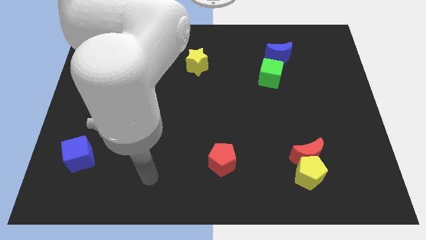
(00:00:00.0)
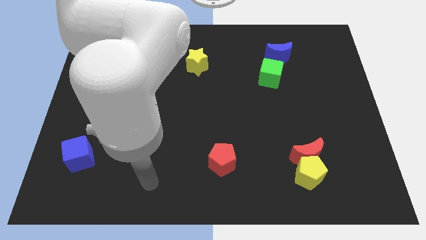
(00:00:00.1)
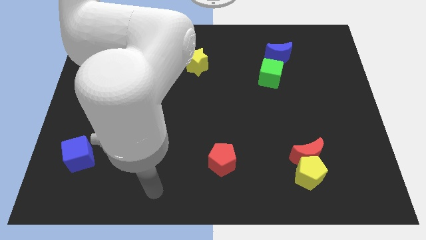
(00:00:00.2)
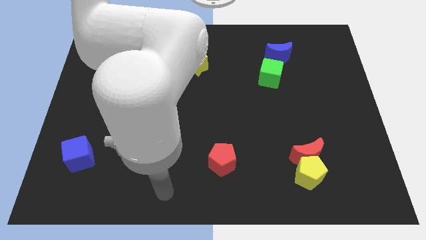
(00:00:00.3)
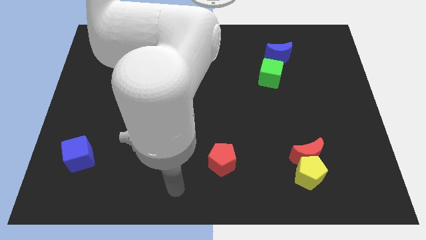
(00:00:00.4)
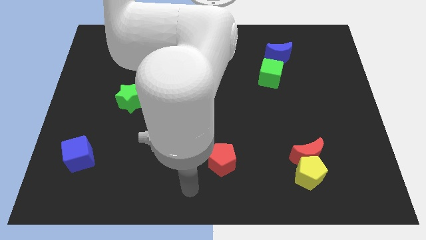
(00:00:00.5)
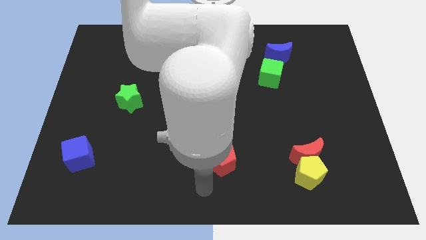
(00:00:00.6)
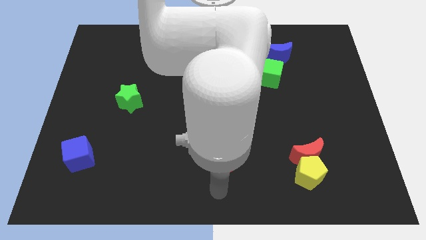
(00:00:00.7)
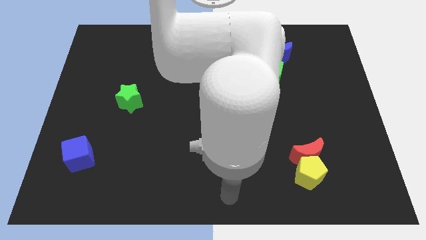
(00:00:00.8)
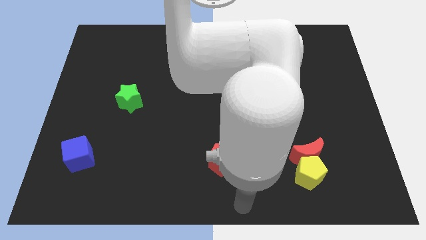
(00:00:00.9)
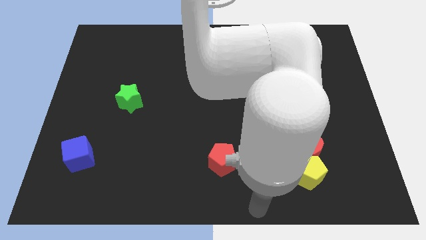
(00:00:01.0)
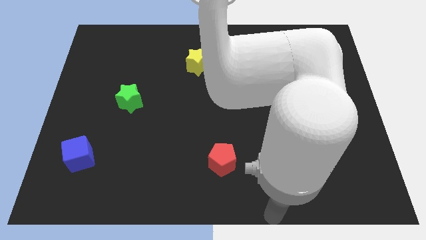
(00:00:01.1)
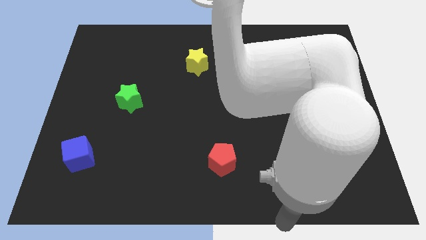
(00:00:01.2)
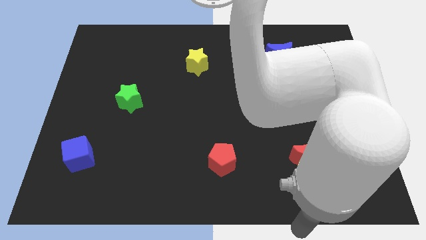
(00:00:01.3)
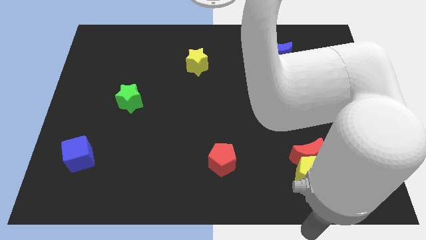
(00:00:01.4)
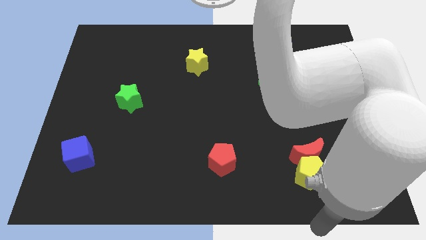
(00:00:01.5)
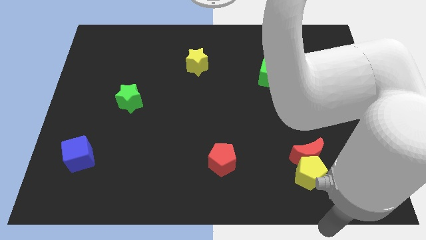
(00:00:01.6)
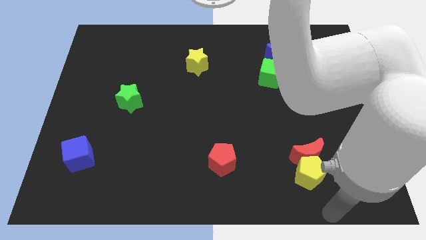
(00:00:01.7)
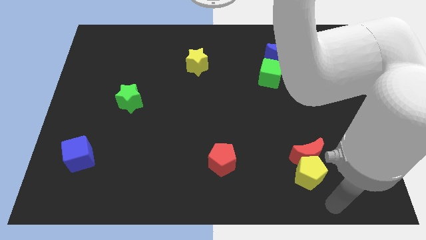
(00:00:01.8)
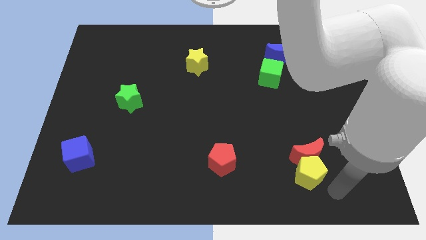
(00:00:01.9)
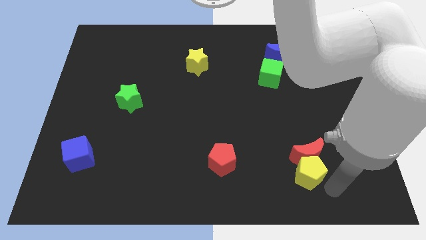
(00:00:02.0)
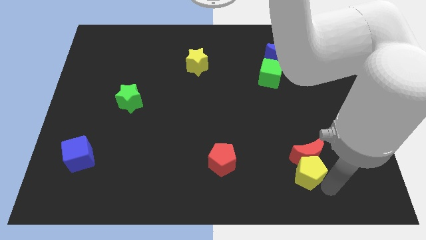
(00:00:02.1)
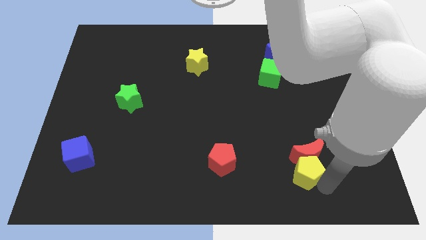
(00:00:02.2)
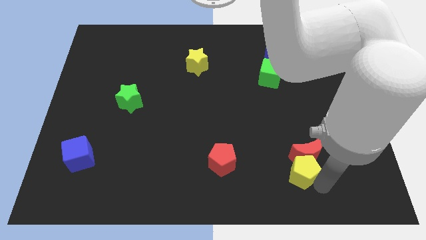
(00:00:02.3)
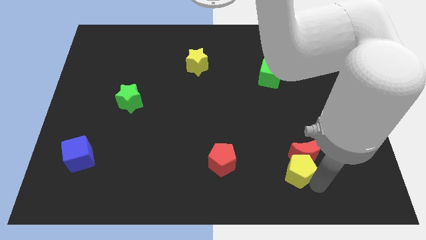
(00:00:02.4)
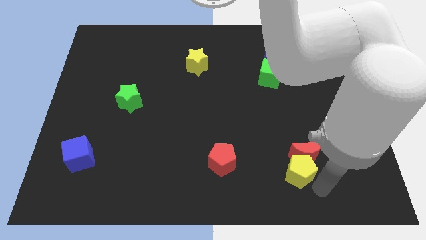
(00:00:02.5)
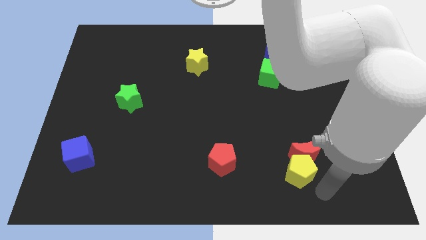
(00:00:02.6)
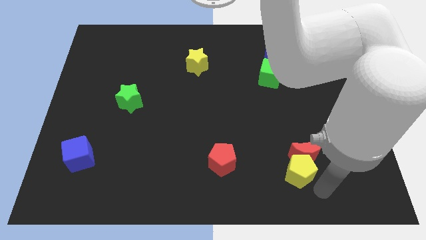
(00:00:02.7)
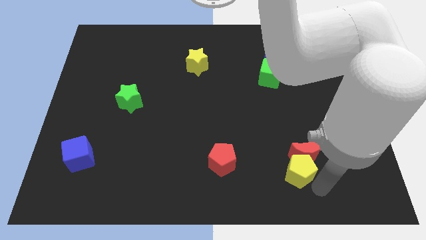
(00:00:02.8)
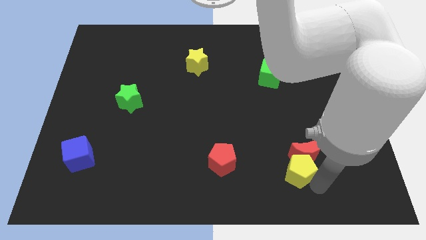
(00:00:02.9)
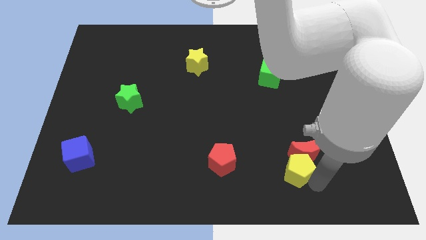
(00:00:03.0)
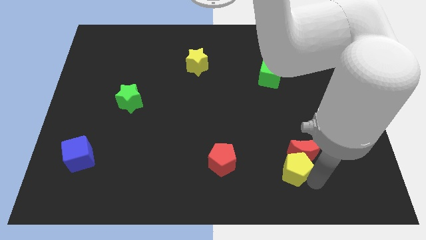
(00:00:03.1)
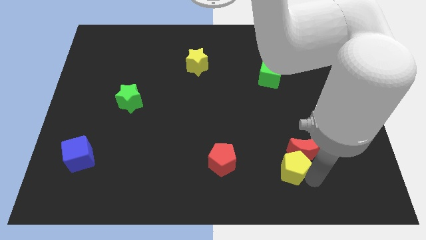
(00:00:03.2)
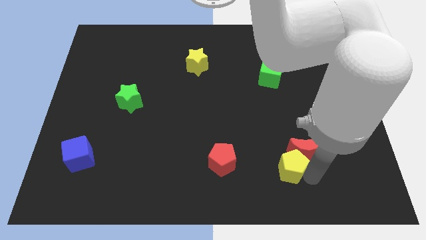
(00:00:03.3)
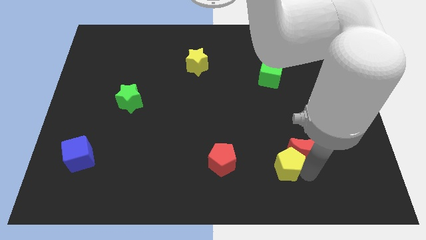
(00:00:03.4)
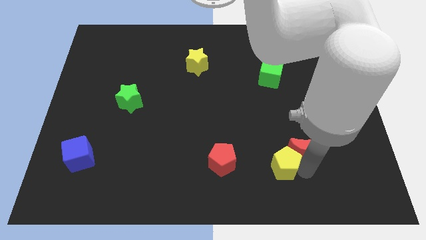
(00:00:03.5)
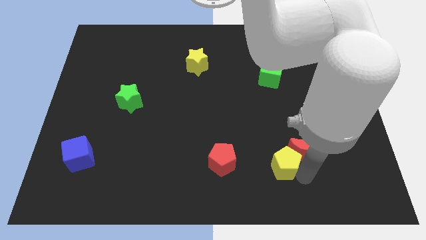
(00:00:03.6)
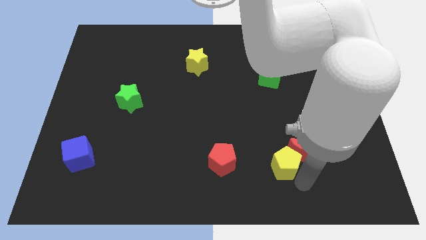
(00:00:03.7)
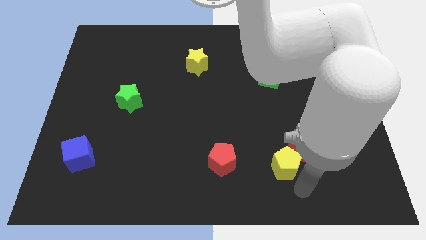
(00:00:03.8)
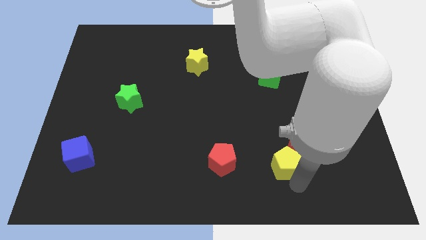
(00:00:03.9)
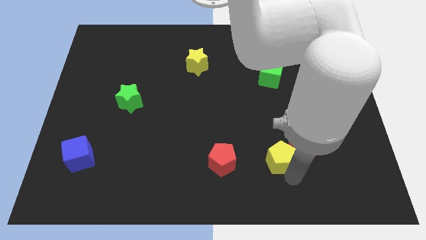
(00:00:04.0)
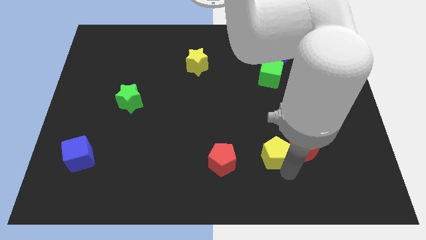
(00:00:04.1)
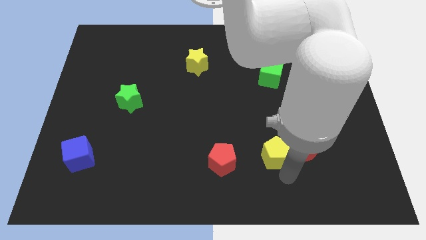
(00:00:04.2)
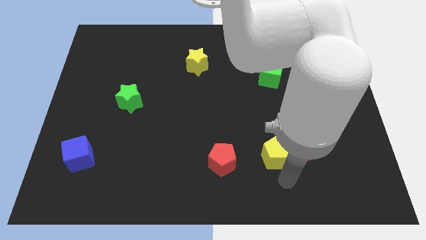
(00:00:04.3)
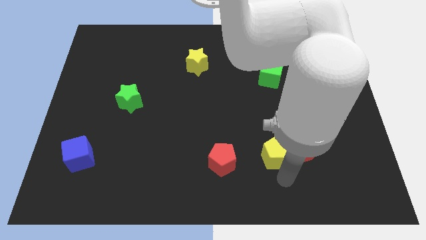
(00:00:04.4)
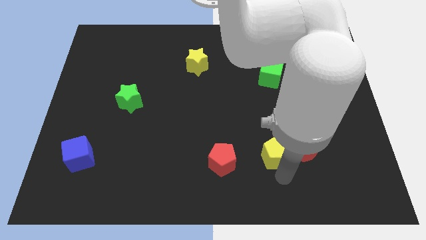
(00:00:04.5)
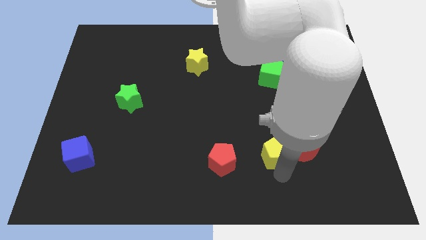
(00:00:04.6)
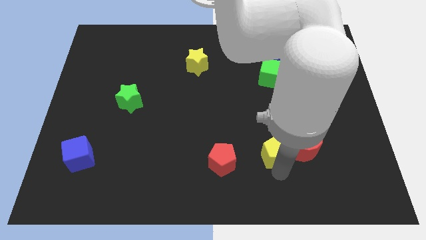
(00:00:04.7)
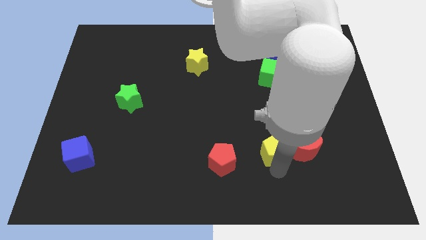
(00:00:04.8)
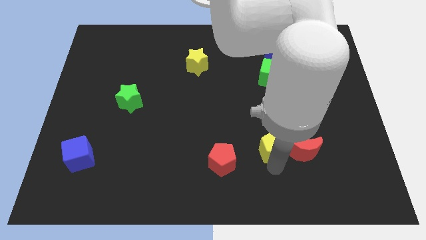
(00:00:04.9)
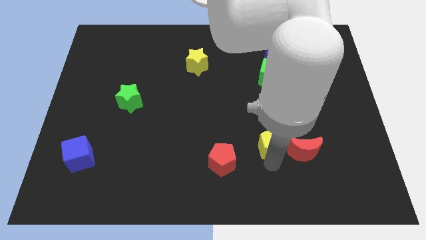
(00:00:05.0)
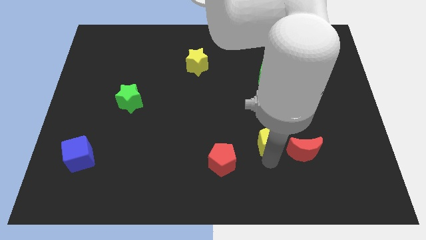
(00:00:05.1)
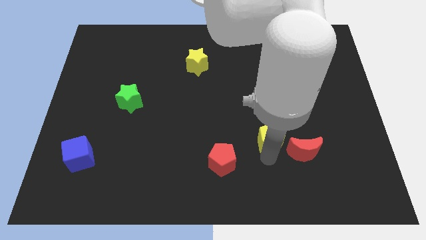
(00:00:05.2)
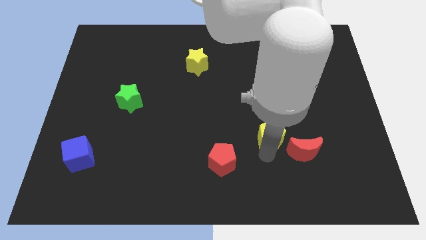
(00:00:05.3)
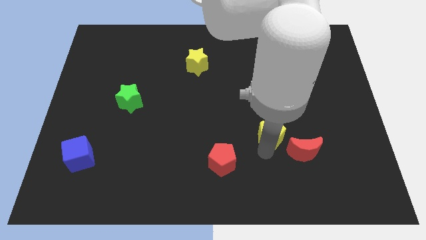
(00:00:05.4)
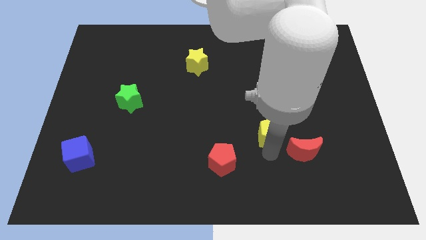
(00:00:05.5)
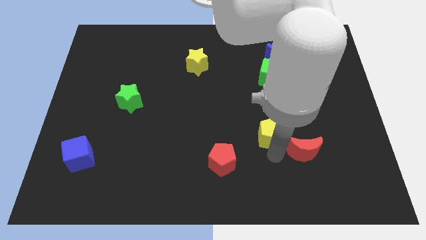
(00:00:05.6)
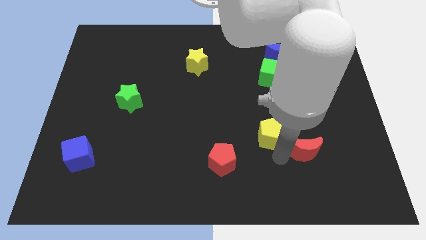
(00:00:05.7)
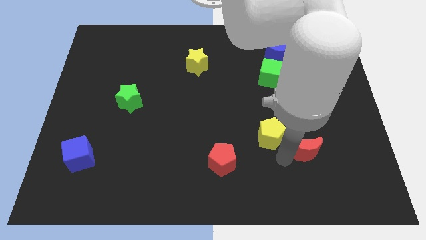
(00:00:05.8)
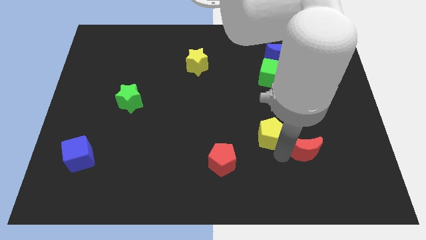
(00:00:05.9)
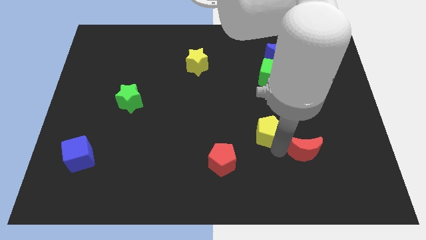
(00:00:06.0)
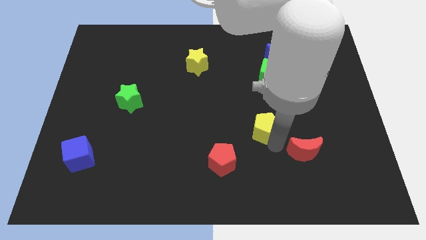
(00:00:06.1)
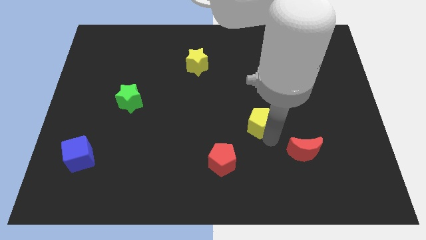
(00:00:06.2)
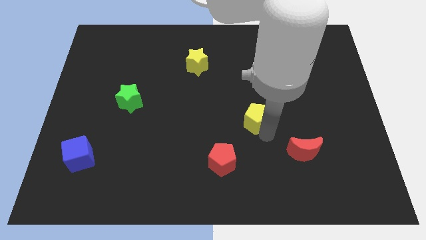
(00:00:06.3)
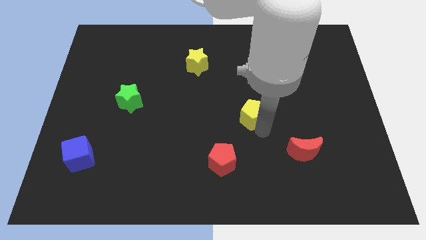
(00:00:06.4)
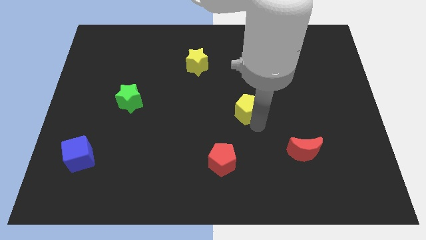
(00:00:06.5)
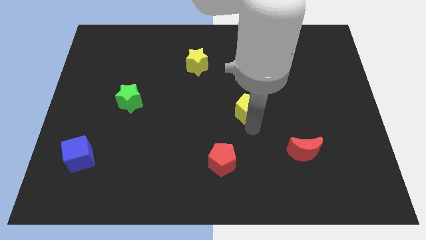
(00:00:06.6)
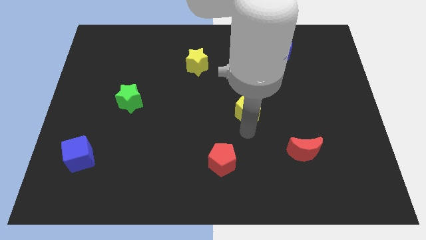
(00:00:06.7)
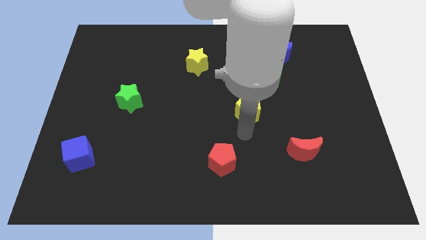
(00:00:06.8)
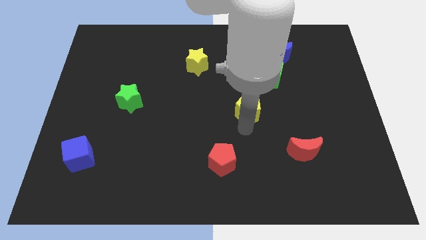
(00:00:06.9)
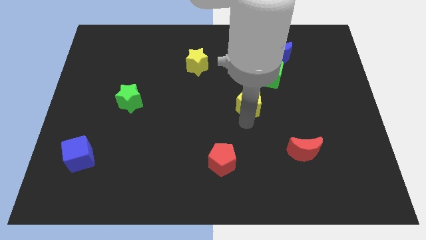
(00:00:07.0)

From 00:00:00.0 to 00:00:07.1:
put the yellow pentagon to the bottom left side of the green cube
